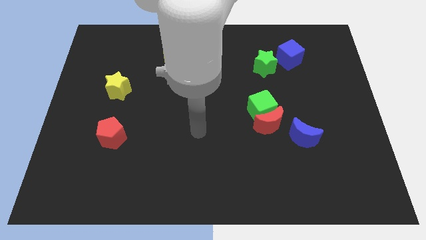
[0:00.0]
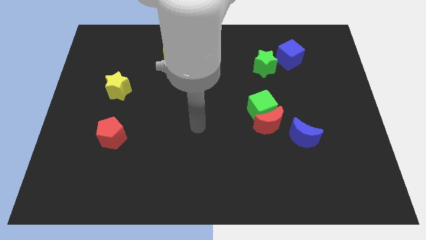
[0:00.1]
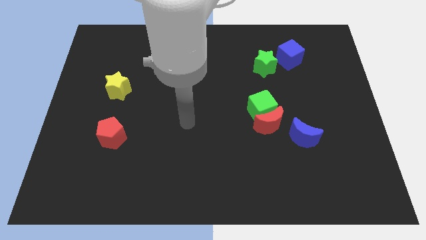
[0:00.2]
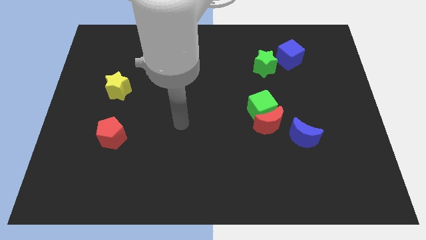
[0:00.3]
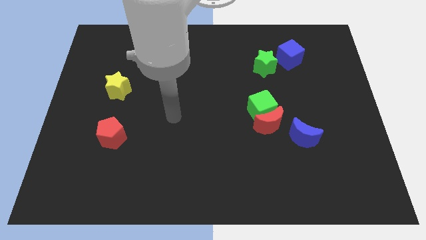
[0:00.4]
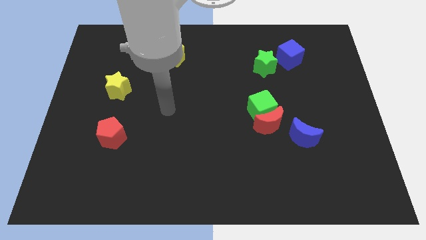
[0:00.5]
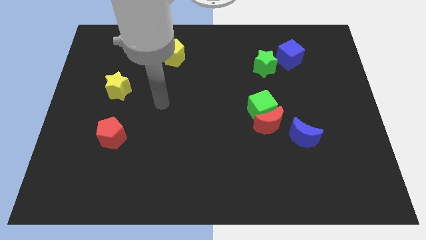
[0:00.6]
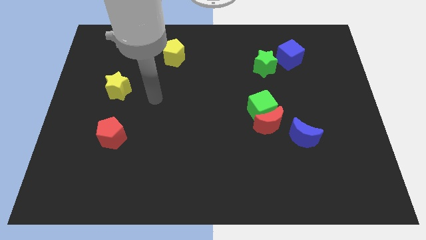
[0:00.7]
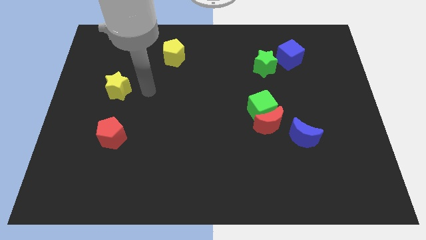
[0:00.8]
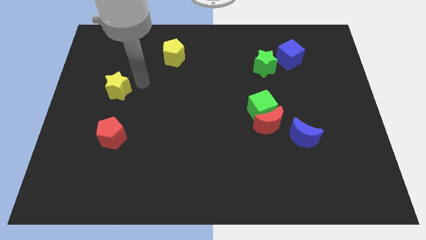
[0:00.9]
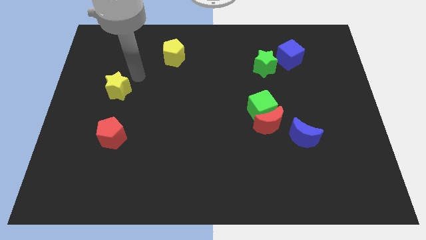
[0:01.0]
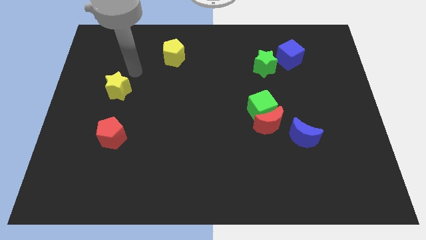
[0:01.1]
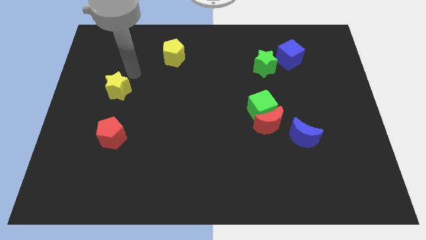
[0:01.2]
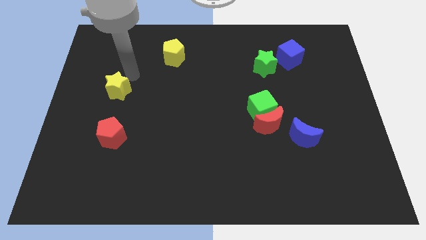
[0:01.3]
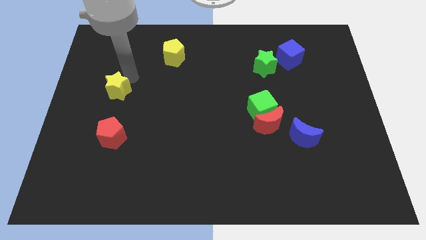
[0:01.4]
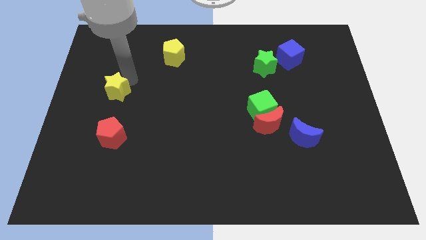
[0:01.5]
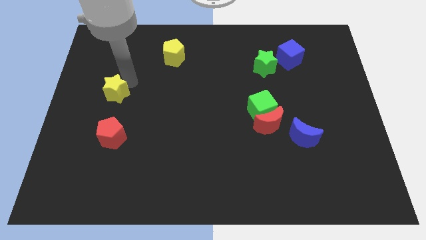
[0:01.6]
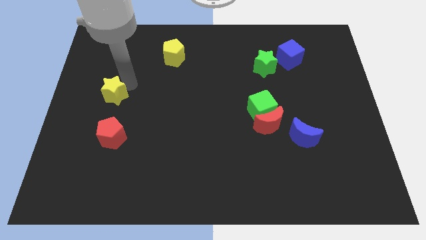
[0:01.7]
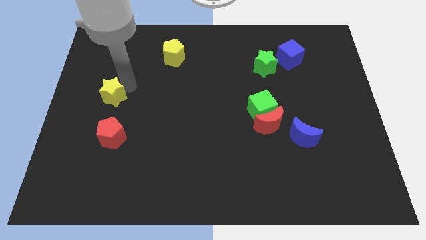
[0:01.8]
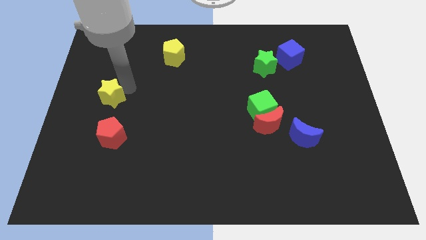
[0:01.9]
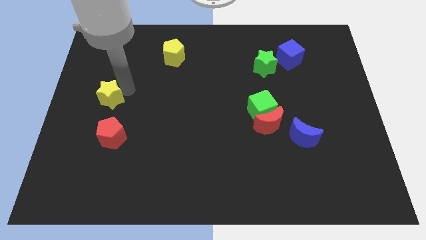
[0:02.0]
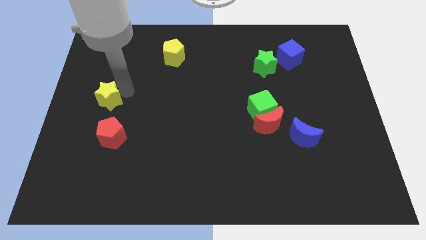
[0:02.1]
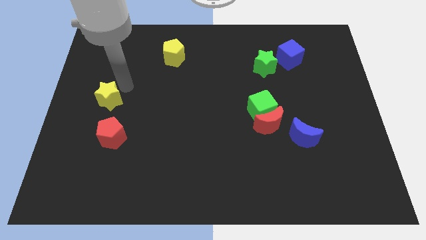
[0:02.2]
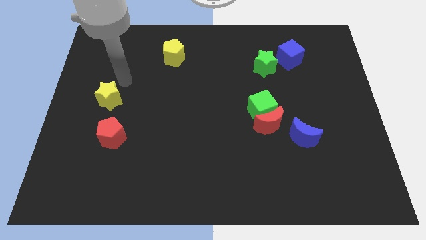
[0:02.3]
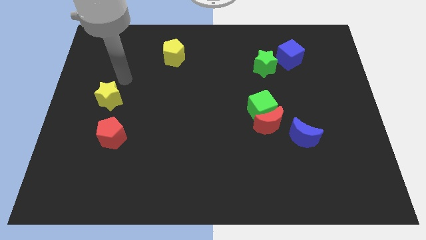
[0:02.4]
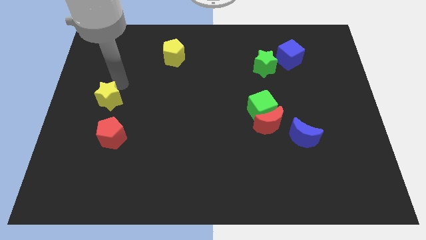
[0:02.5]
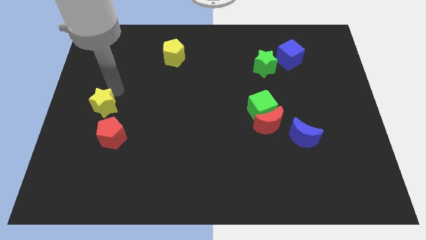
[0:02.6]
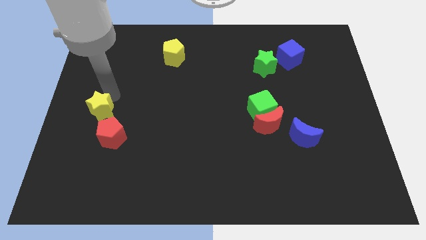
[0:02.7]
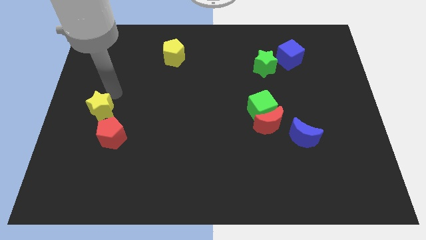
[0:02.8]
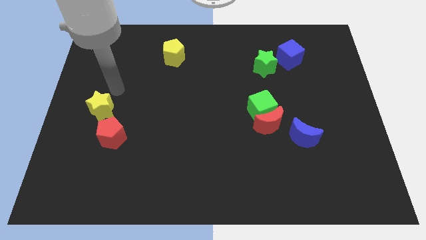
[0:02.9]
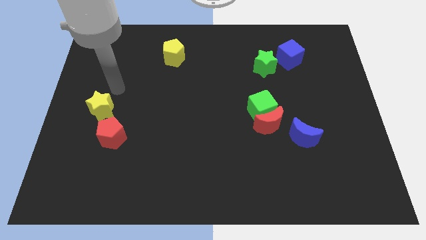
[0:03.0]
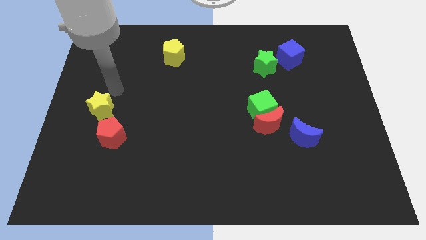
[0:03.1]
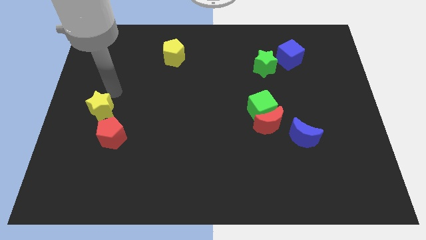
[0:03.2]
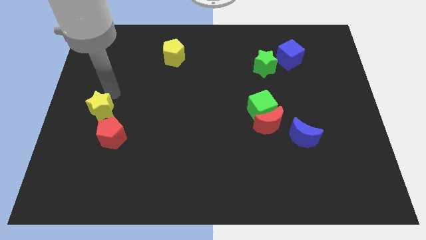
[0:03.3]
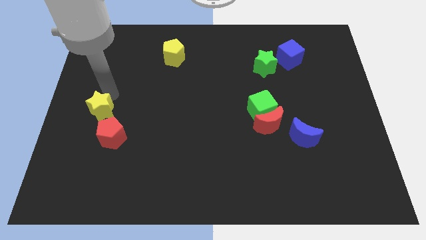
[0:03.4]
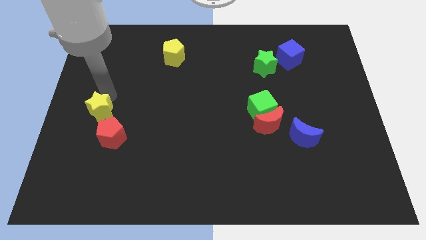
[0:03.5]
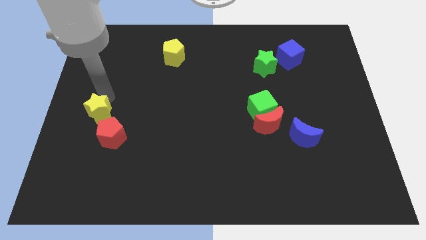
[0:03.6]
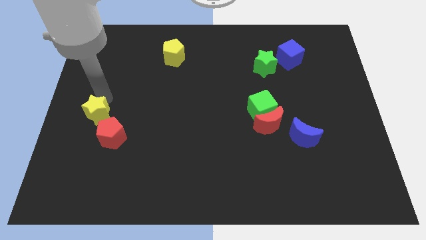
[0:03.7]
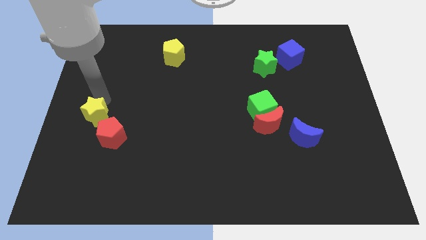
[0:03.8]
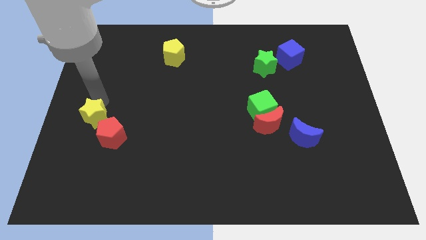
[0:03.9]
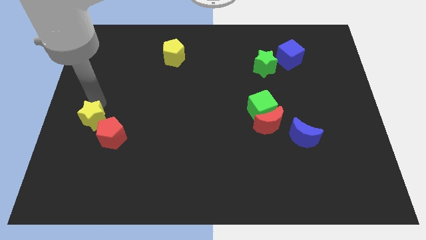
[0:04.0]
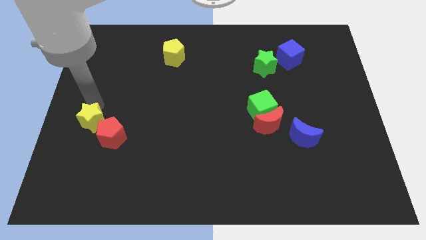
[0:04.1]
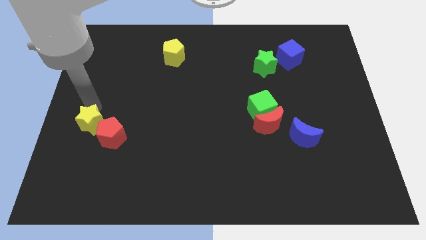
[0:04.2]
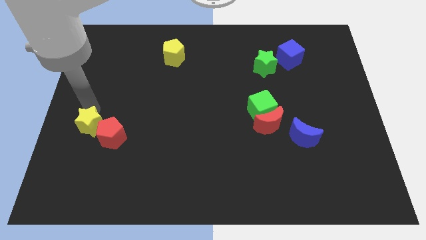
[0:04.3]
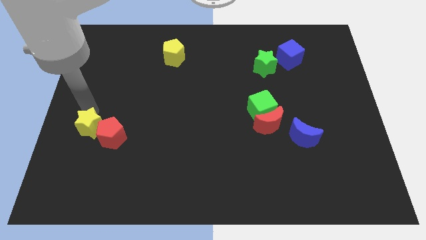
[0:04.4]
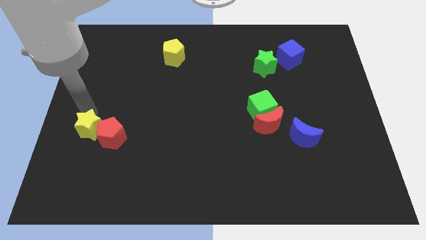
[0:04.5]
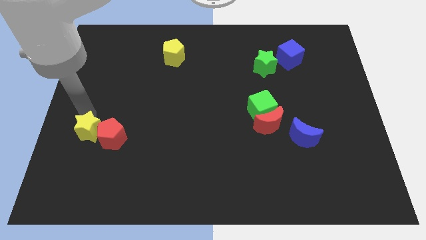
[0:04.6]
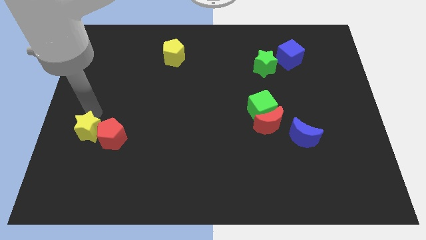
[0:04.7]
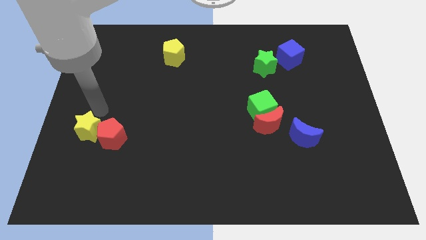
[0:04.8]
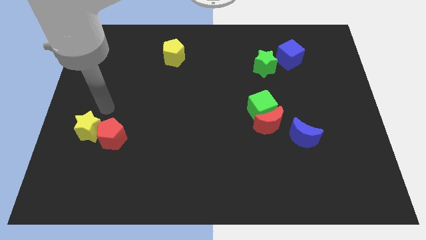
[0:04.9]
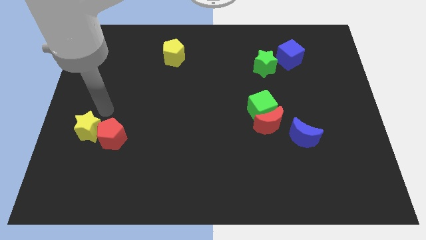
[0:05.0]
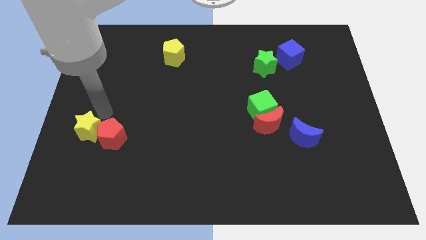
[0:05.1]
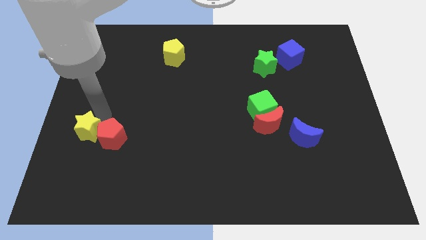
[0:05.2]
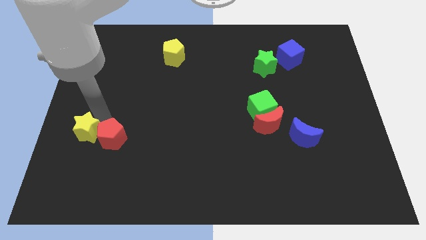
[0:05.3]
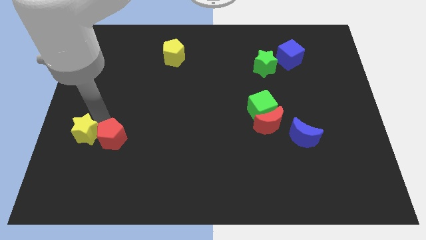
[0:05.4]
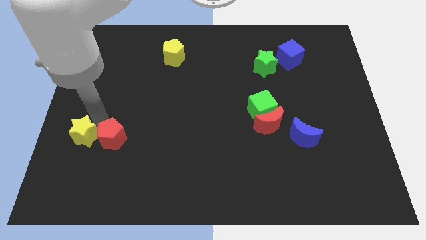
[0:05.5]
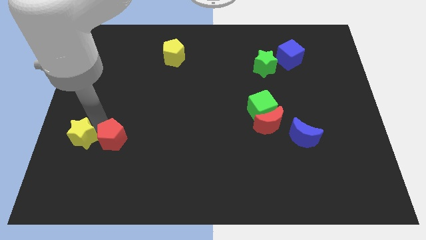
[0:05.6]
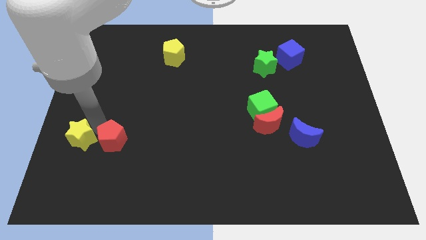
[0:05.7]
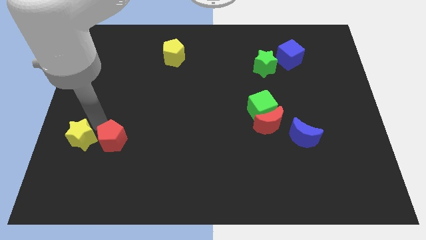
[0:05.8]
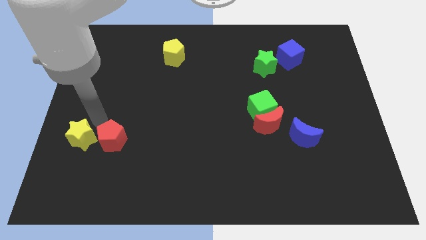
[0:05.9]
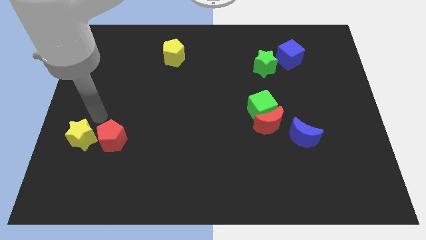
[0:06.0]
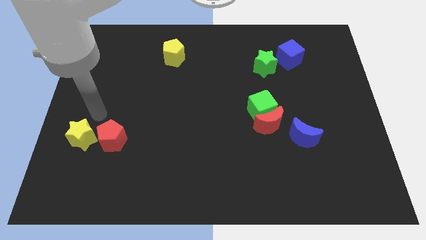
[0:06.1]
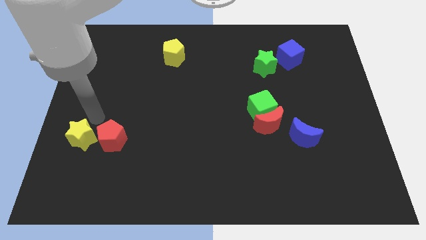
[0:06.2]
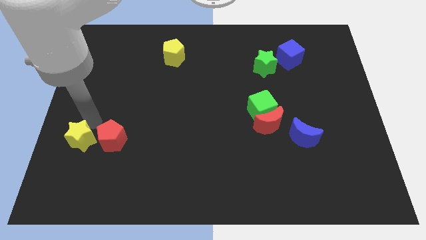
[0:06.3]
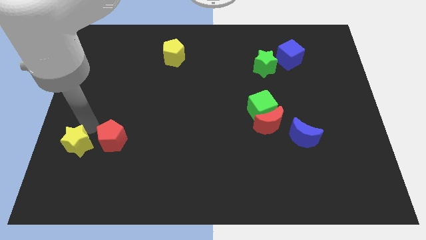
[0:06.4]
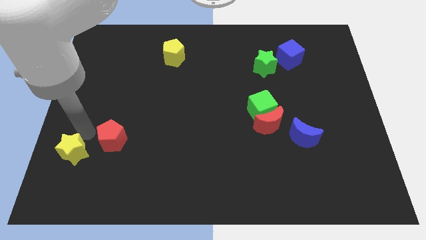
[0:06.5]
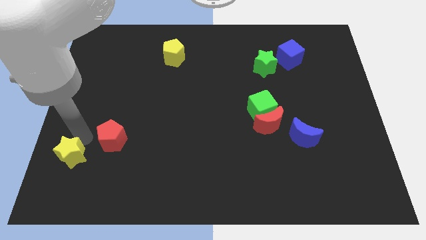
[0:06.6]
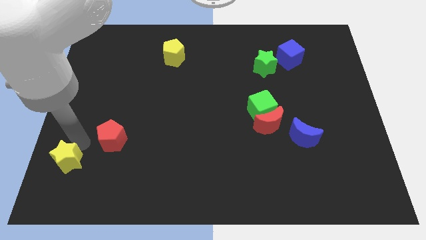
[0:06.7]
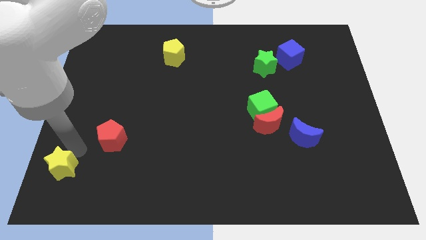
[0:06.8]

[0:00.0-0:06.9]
slide the yellow star to the bottom left corner
